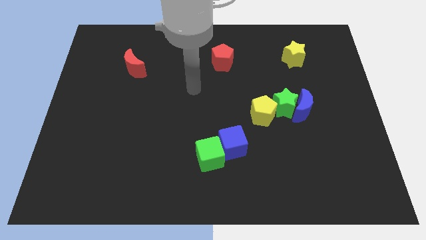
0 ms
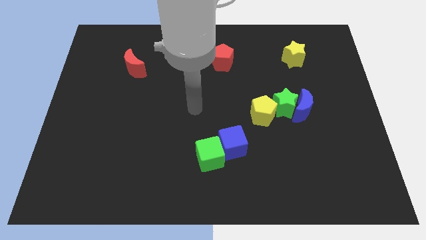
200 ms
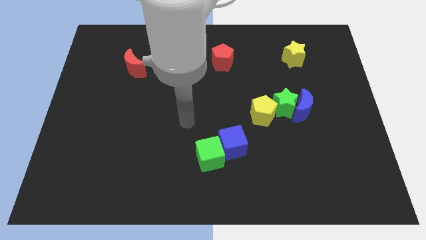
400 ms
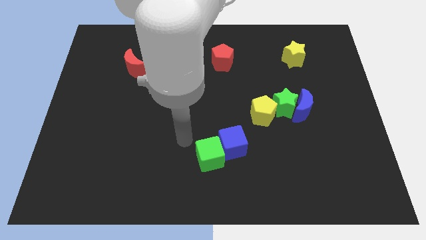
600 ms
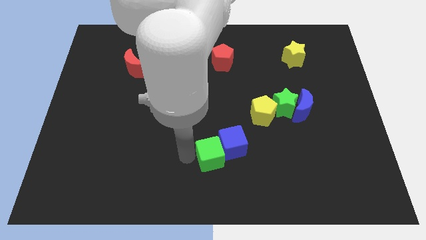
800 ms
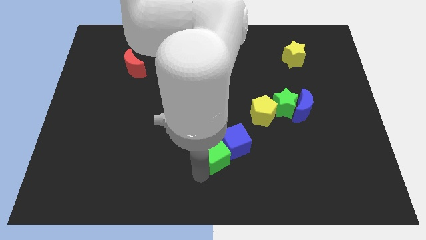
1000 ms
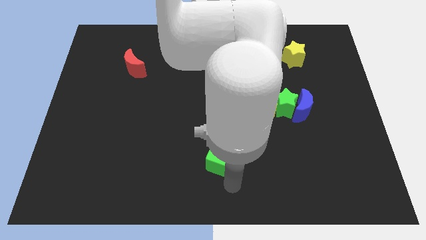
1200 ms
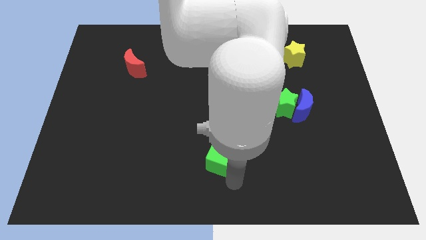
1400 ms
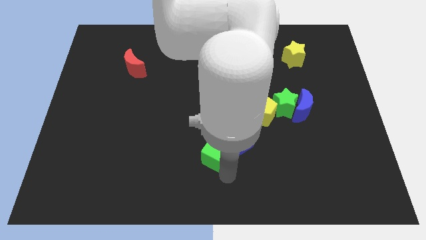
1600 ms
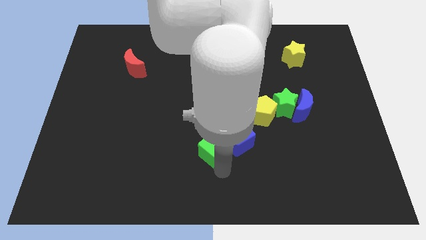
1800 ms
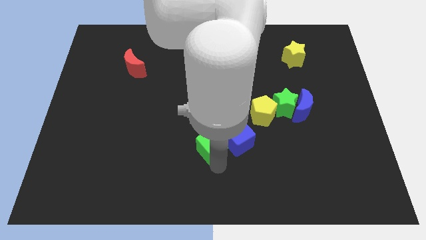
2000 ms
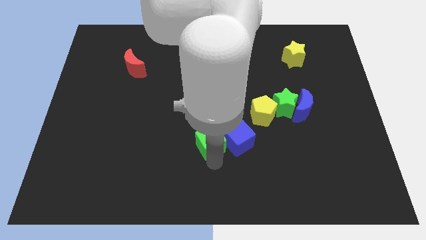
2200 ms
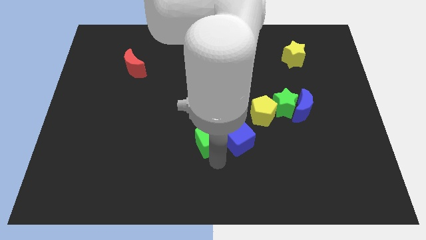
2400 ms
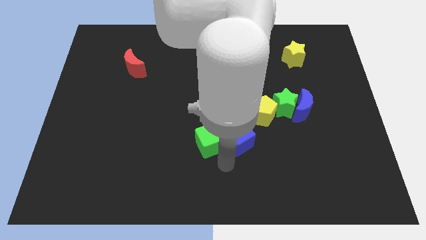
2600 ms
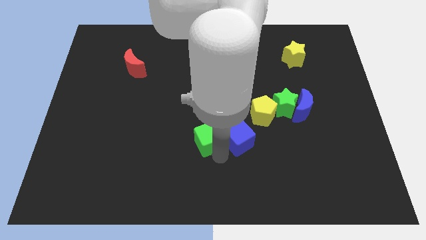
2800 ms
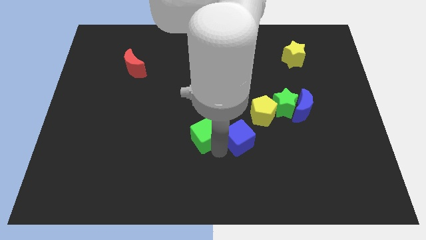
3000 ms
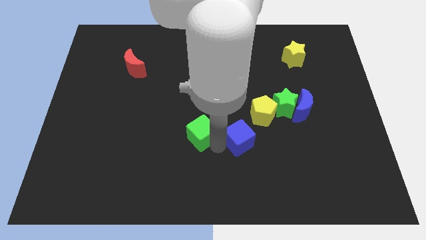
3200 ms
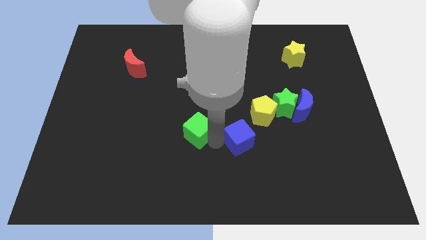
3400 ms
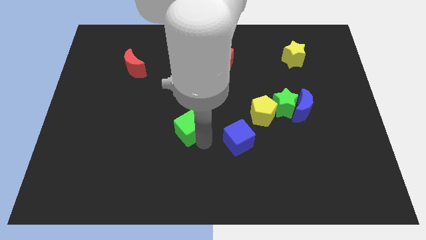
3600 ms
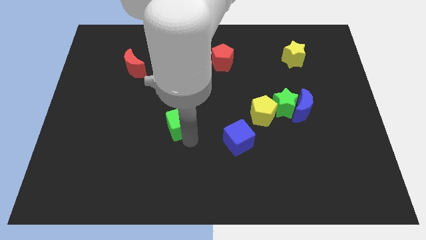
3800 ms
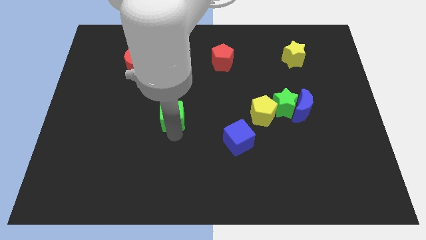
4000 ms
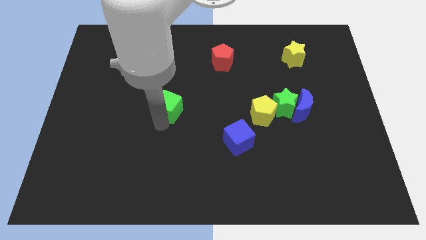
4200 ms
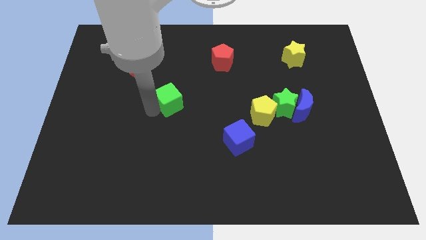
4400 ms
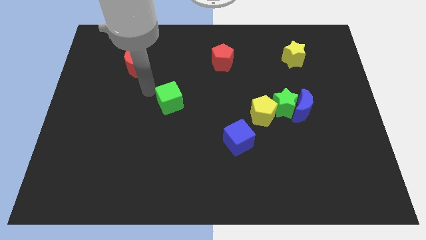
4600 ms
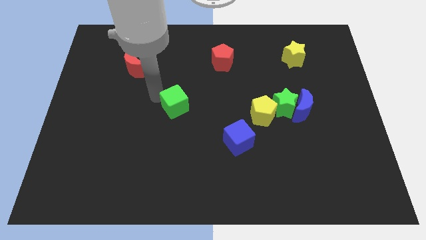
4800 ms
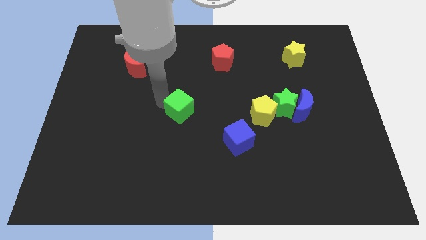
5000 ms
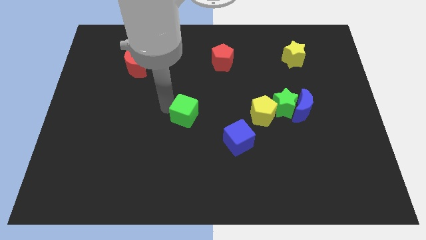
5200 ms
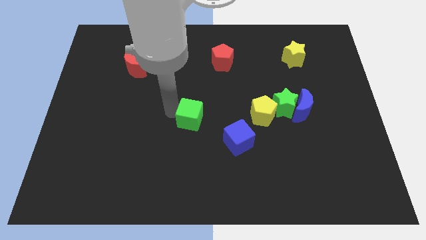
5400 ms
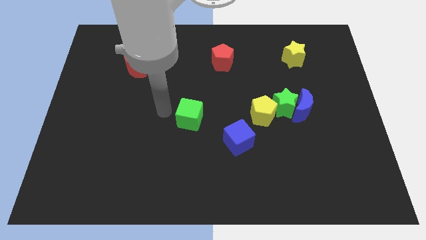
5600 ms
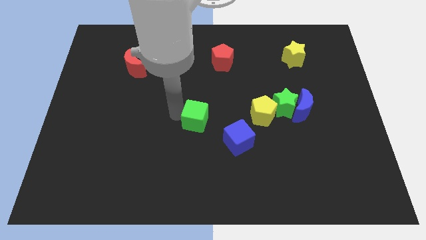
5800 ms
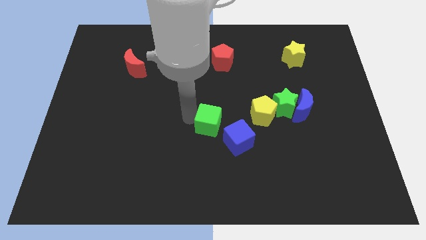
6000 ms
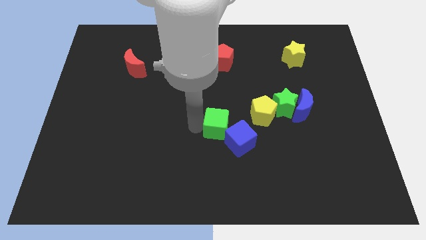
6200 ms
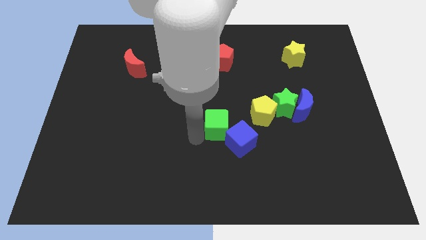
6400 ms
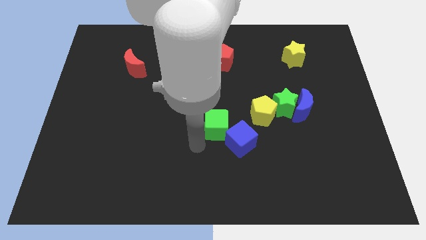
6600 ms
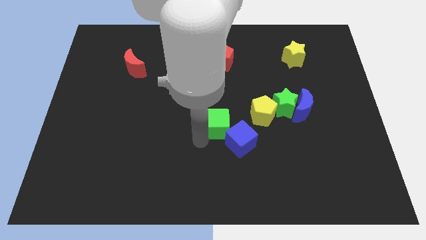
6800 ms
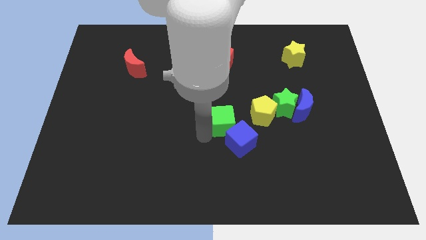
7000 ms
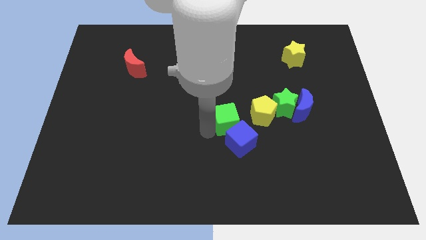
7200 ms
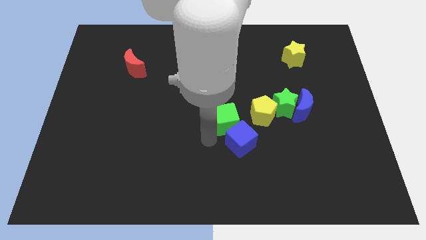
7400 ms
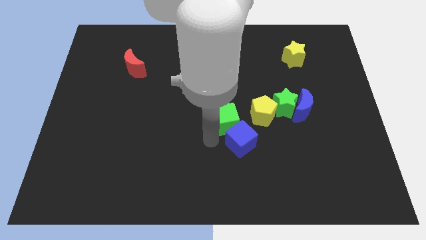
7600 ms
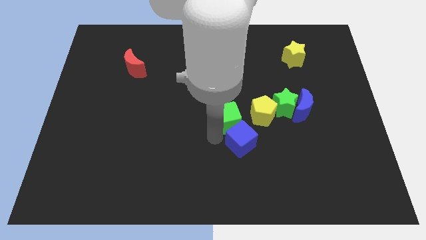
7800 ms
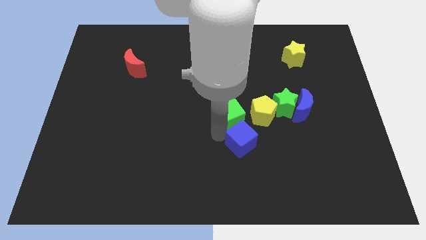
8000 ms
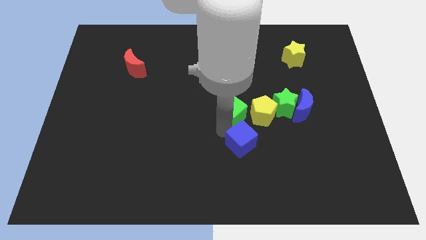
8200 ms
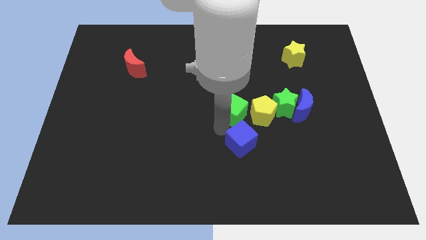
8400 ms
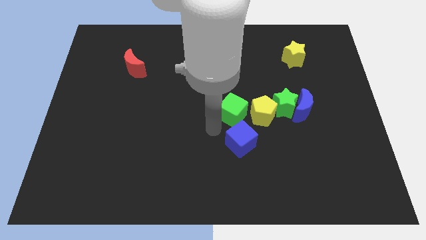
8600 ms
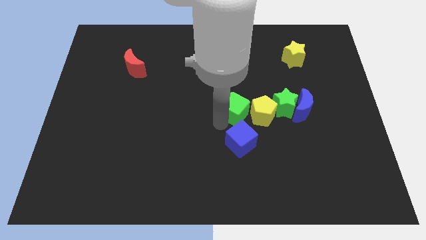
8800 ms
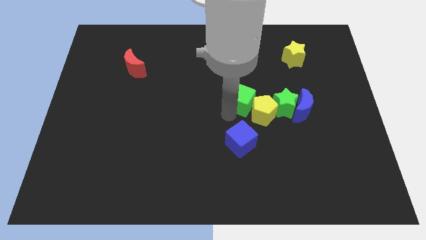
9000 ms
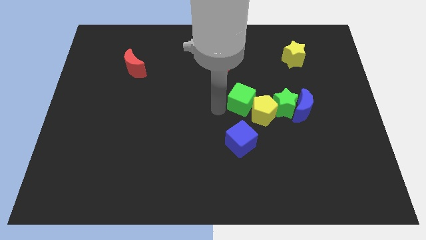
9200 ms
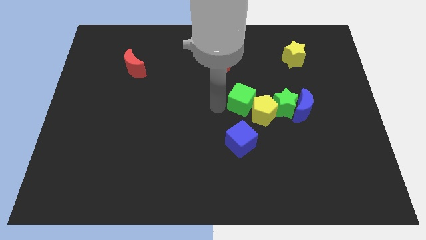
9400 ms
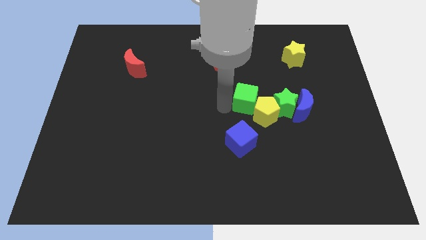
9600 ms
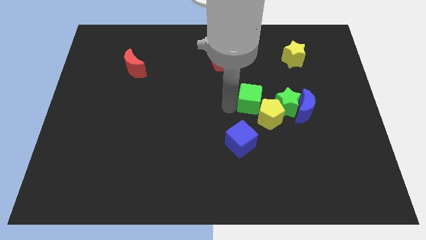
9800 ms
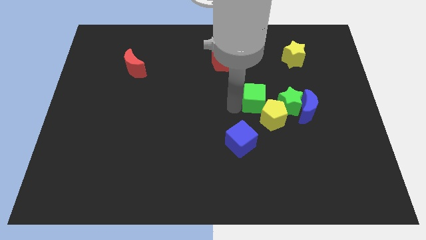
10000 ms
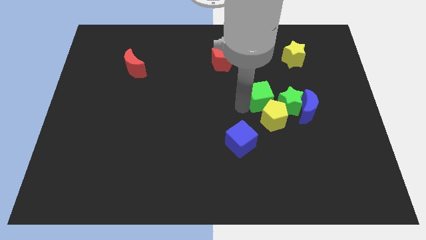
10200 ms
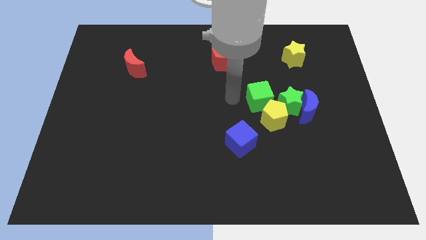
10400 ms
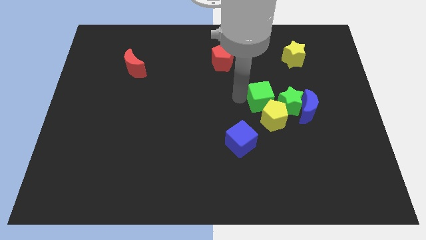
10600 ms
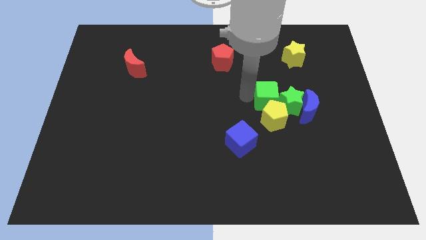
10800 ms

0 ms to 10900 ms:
put the green cube to the top right side of the yellow pentagon

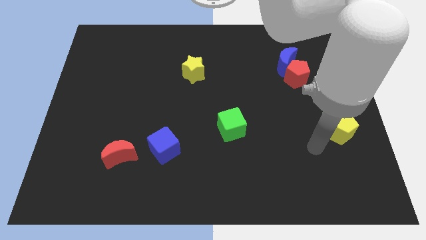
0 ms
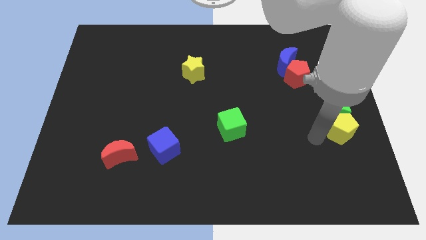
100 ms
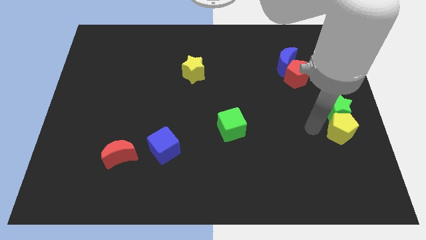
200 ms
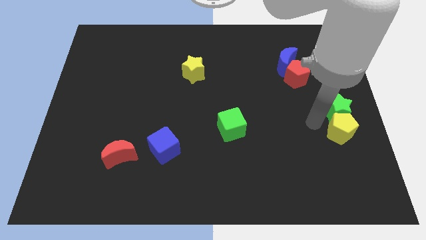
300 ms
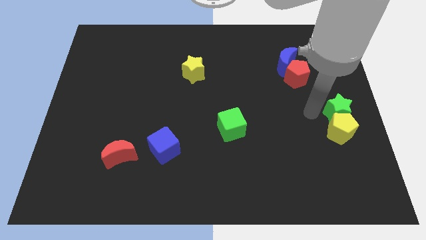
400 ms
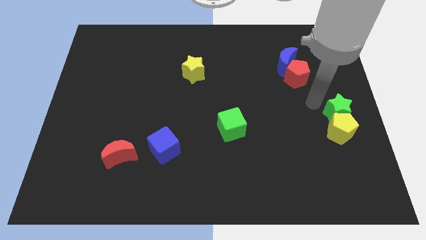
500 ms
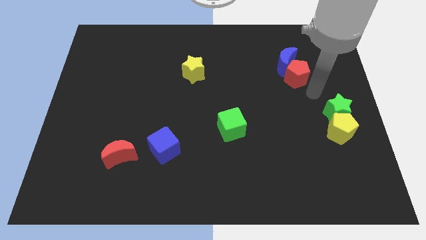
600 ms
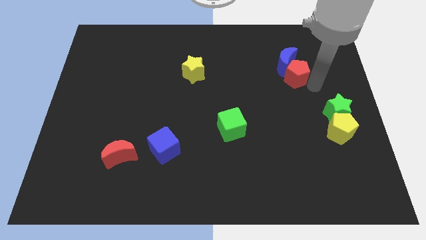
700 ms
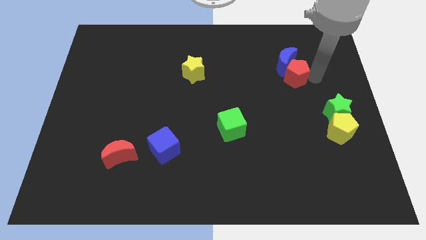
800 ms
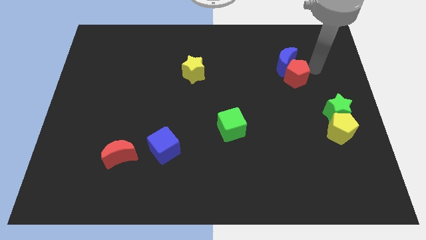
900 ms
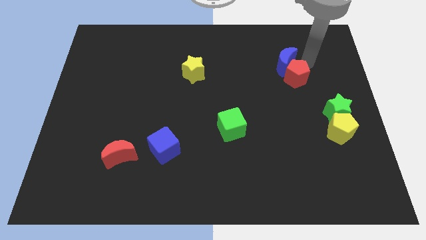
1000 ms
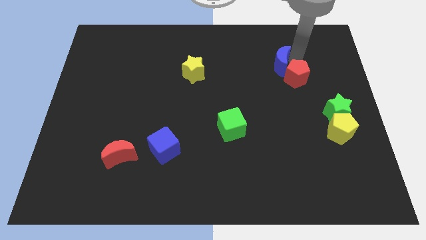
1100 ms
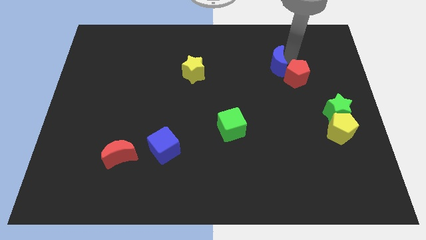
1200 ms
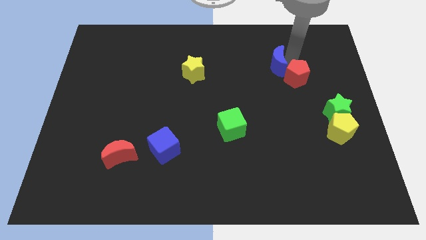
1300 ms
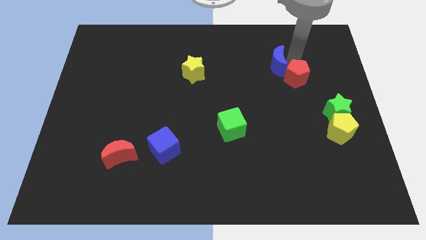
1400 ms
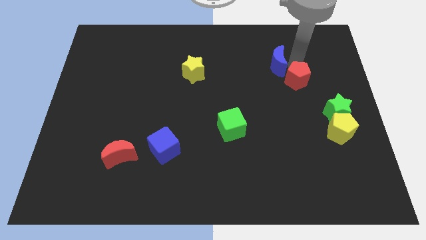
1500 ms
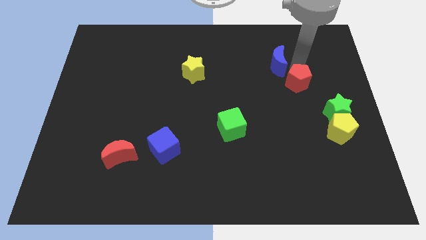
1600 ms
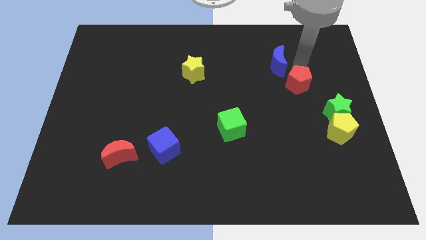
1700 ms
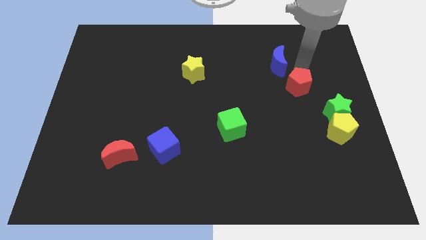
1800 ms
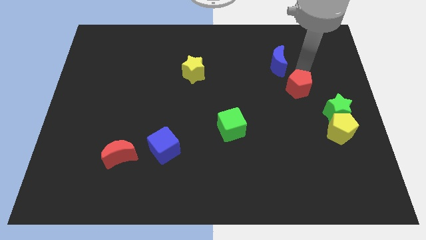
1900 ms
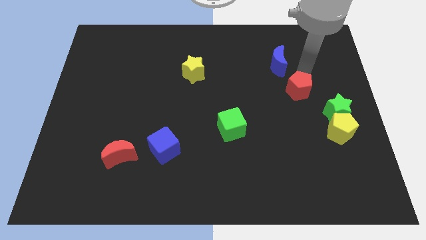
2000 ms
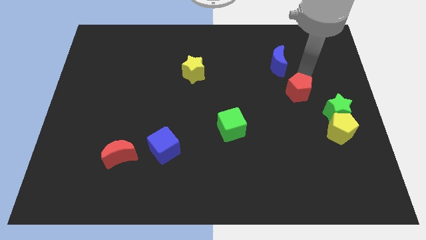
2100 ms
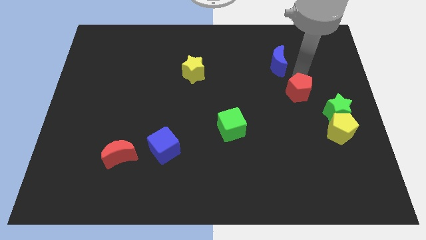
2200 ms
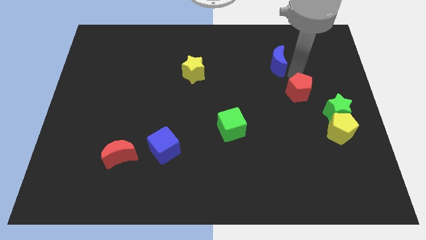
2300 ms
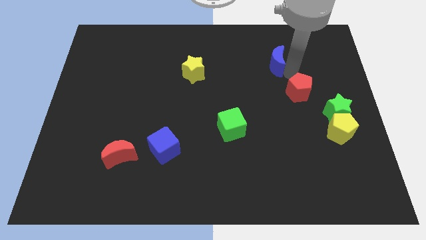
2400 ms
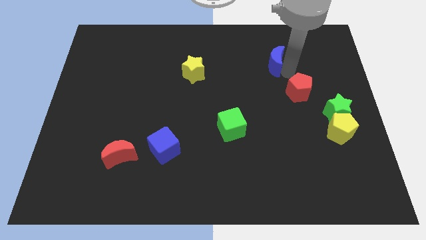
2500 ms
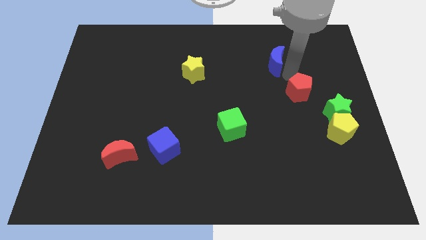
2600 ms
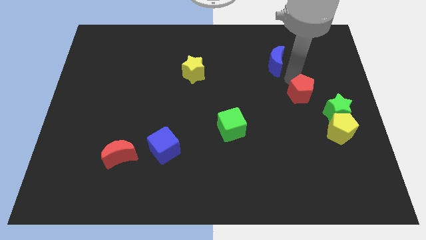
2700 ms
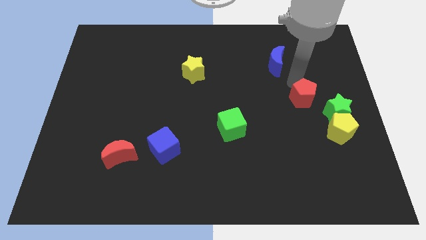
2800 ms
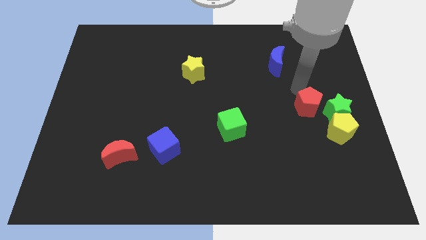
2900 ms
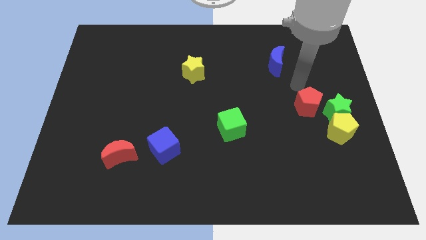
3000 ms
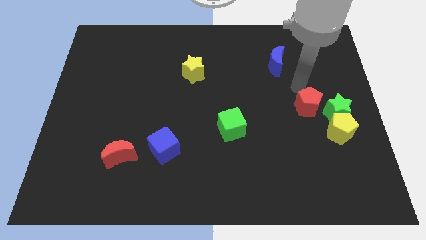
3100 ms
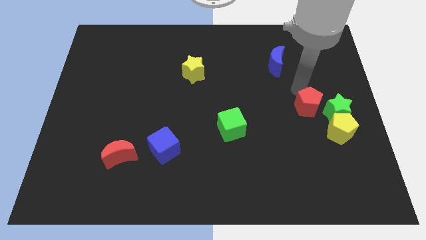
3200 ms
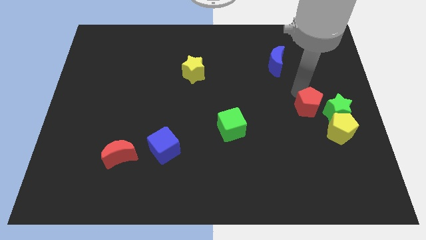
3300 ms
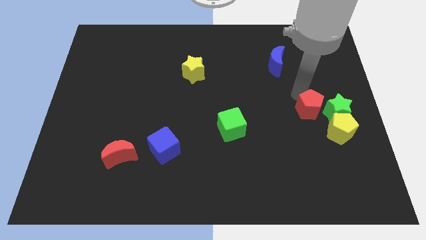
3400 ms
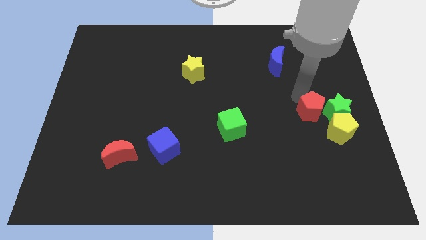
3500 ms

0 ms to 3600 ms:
move the red pentagon to the bottom left of the green star
